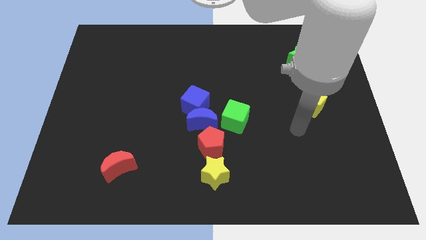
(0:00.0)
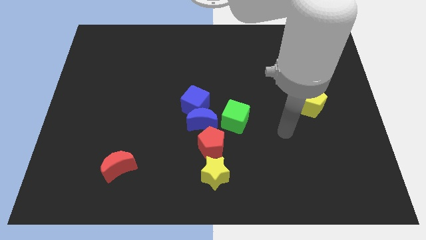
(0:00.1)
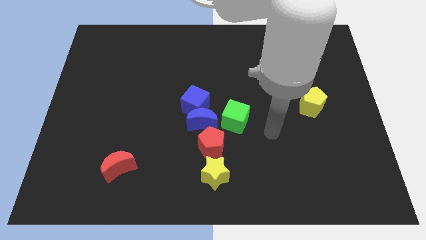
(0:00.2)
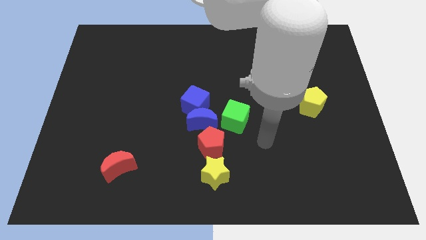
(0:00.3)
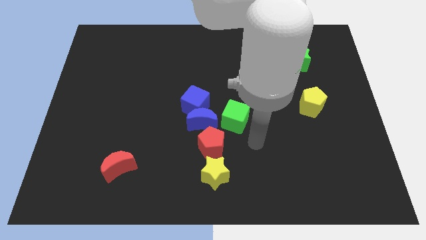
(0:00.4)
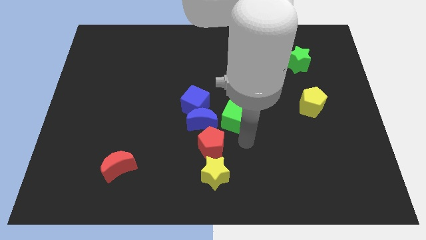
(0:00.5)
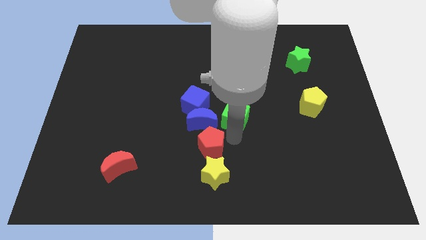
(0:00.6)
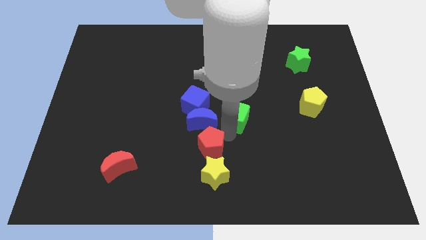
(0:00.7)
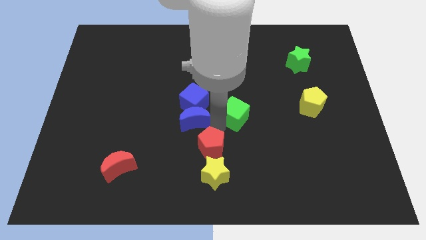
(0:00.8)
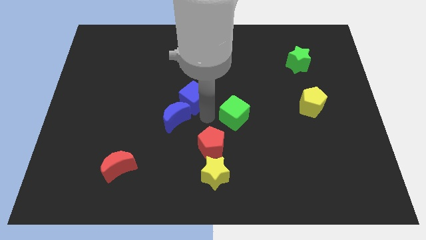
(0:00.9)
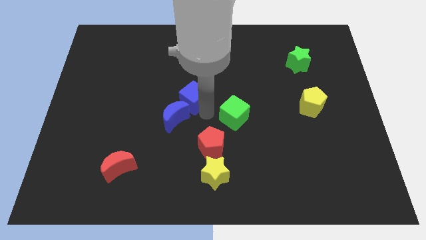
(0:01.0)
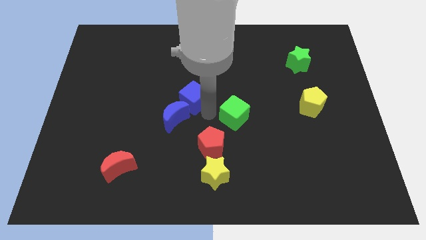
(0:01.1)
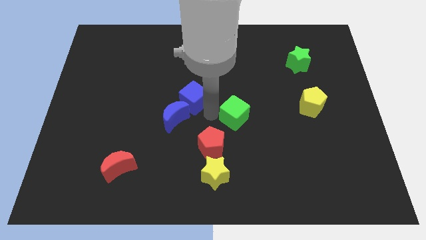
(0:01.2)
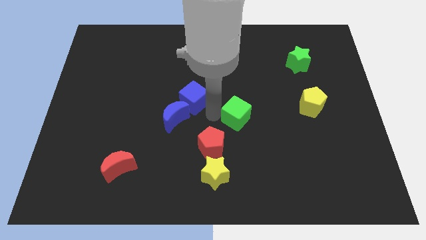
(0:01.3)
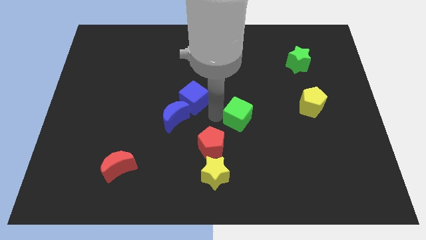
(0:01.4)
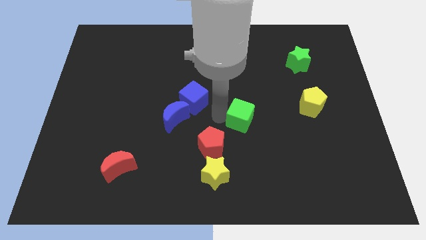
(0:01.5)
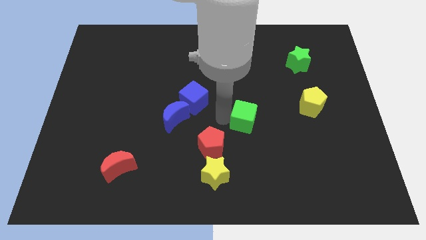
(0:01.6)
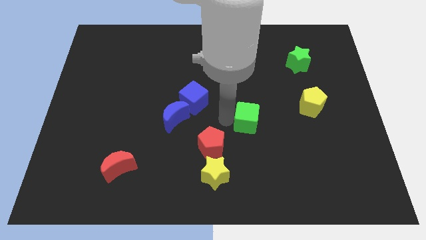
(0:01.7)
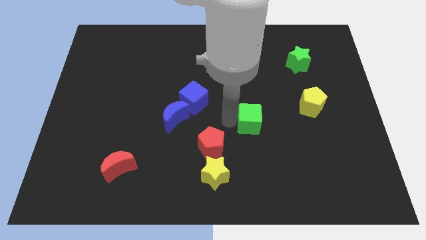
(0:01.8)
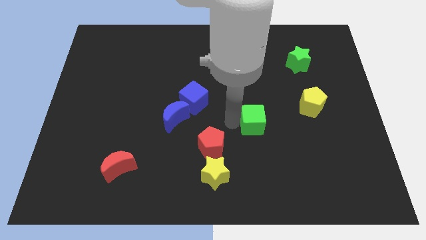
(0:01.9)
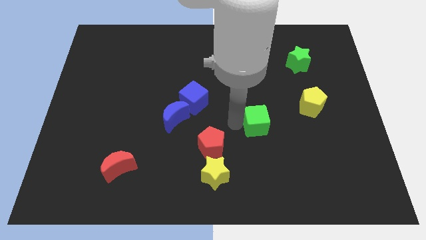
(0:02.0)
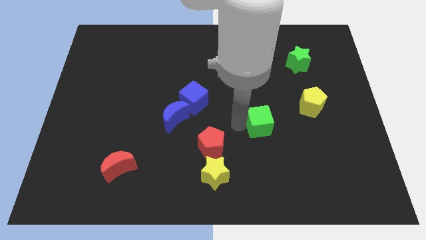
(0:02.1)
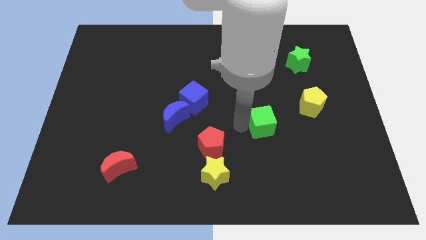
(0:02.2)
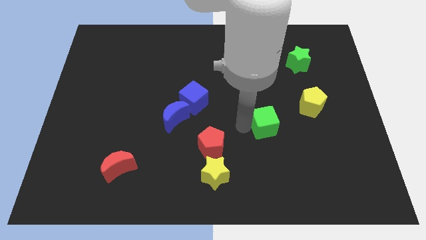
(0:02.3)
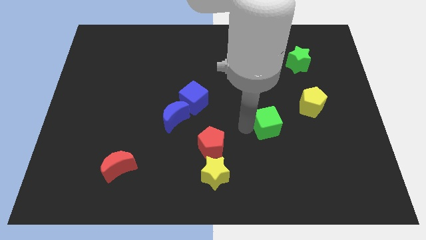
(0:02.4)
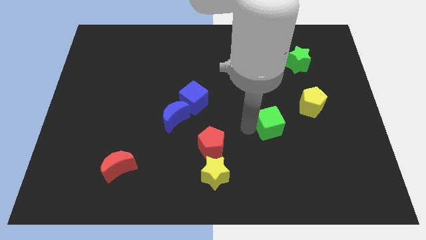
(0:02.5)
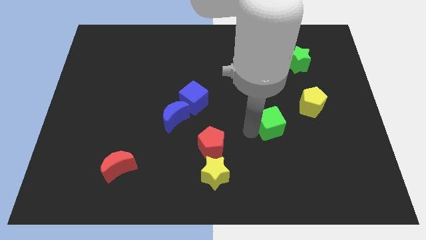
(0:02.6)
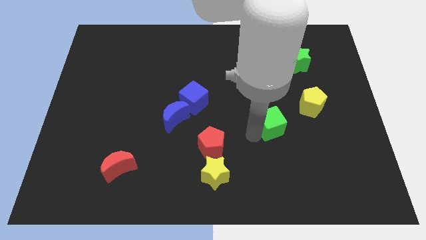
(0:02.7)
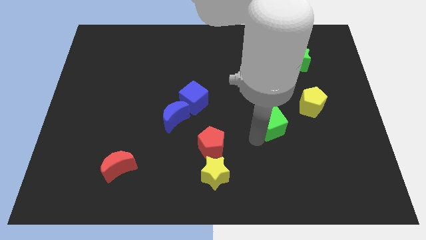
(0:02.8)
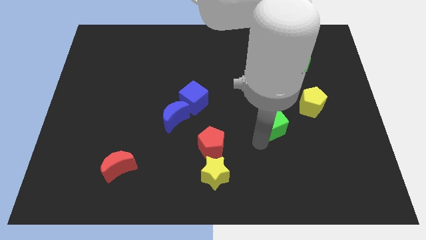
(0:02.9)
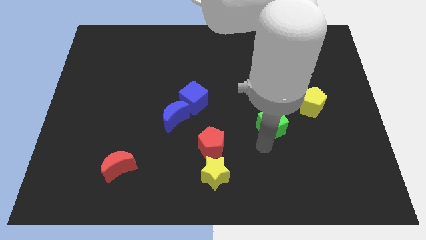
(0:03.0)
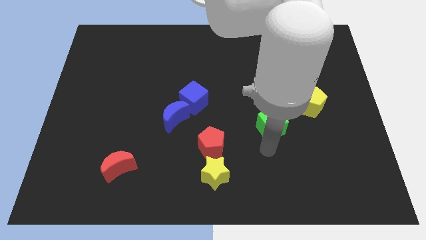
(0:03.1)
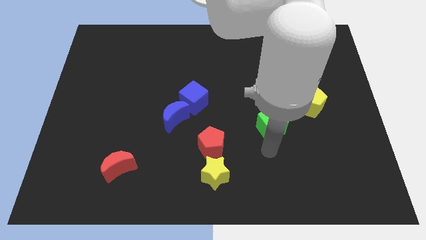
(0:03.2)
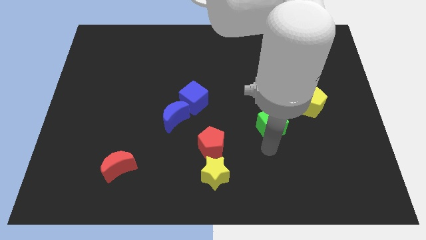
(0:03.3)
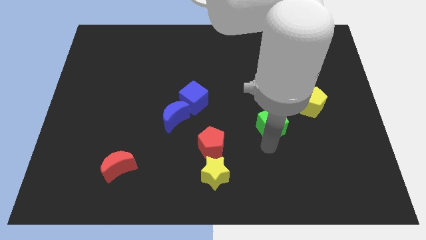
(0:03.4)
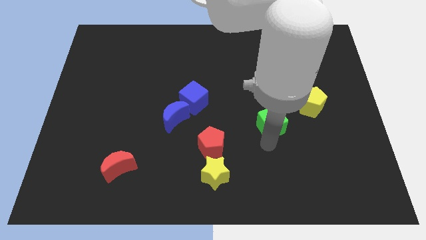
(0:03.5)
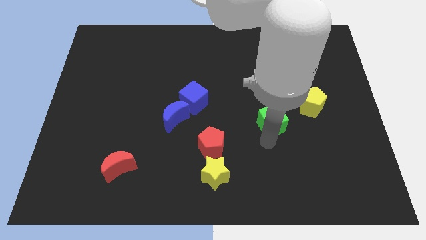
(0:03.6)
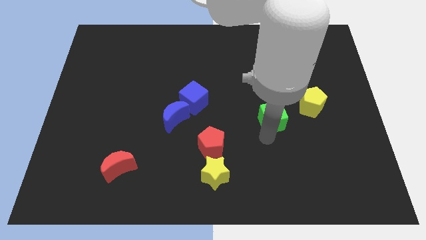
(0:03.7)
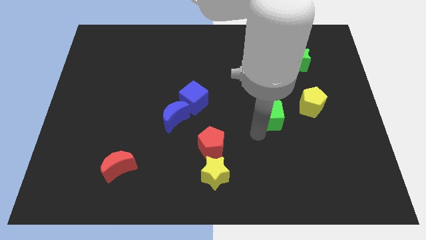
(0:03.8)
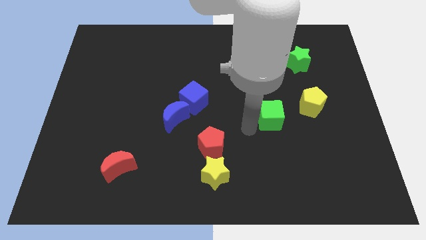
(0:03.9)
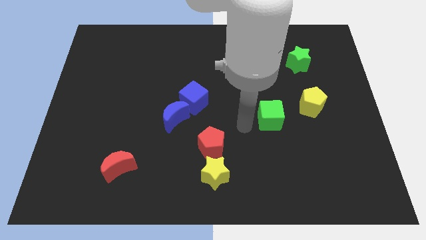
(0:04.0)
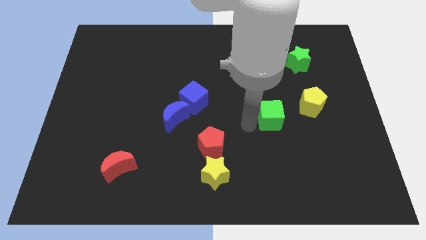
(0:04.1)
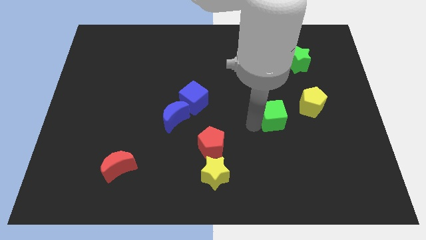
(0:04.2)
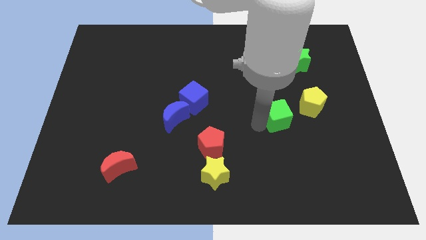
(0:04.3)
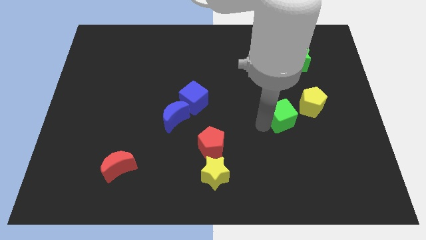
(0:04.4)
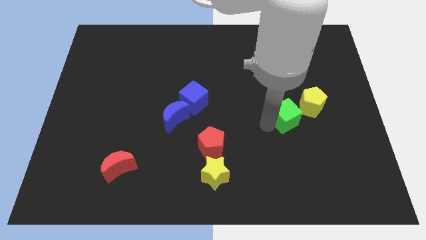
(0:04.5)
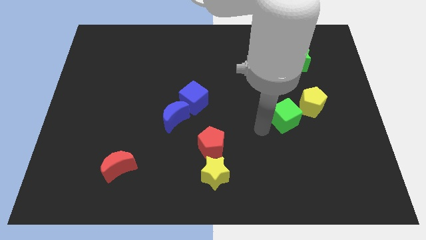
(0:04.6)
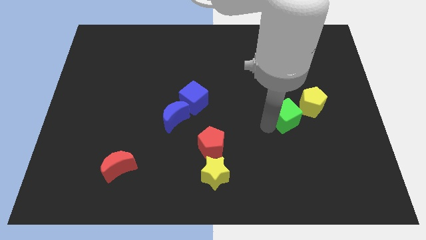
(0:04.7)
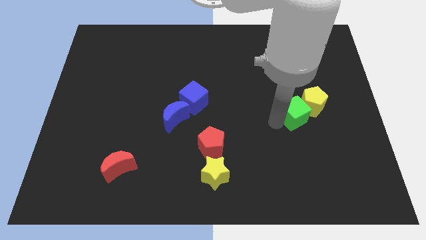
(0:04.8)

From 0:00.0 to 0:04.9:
move the green cube to the yellow pentagon

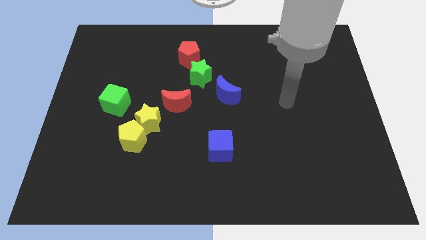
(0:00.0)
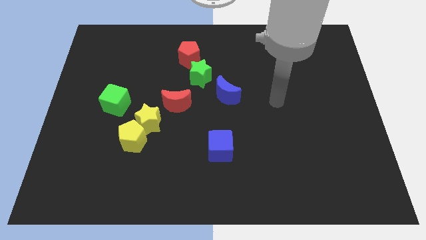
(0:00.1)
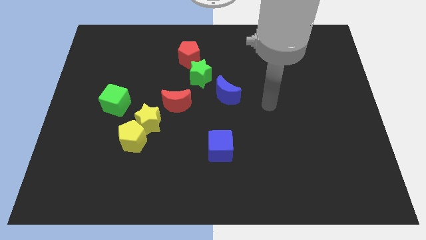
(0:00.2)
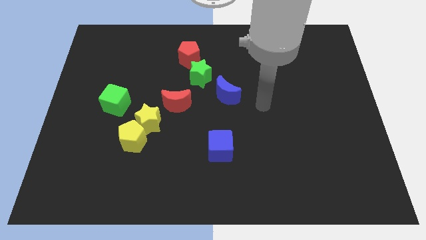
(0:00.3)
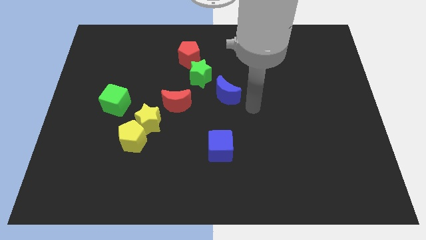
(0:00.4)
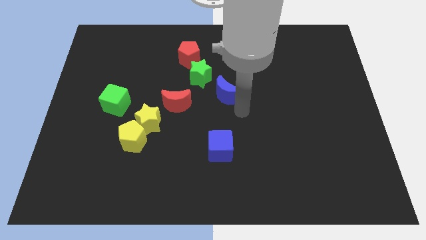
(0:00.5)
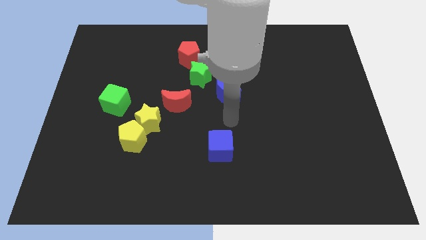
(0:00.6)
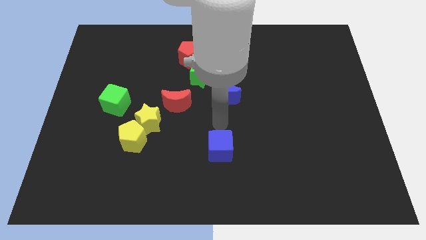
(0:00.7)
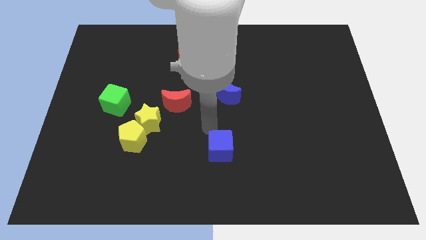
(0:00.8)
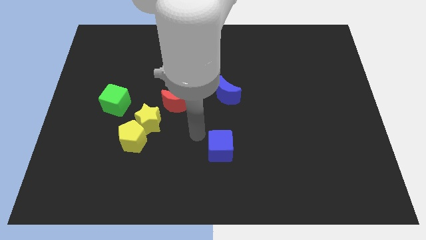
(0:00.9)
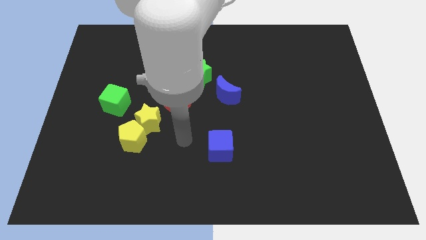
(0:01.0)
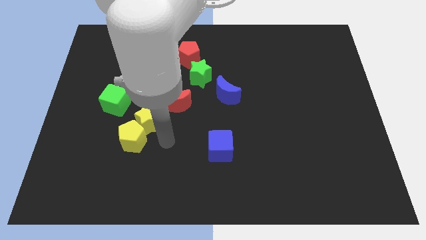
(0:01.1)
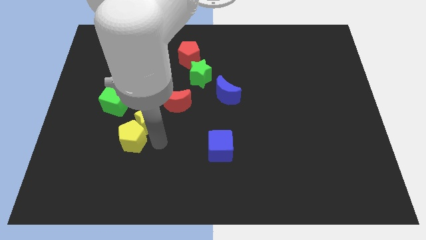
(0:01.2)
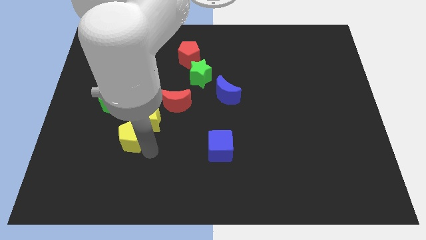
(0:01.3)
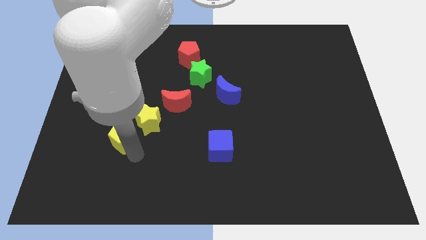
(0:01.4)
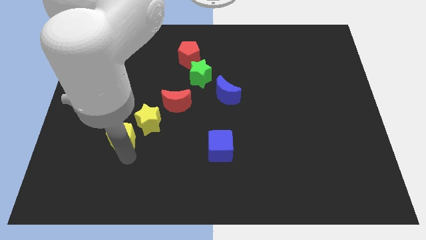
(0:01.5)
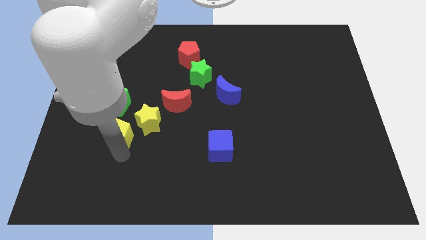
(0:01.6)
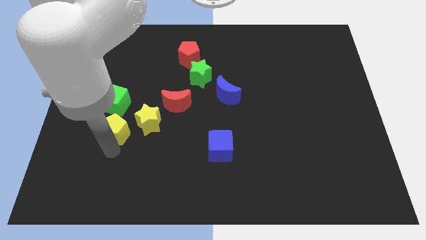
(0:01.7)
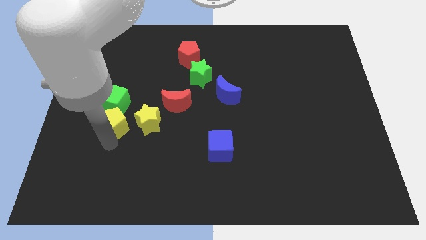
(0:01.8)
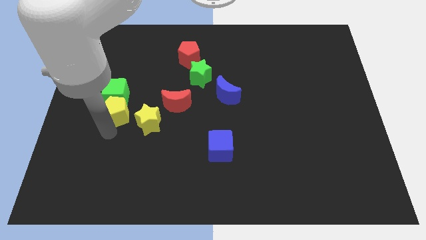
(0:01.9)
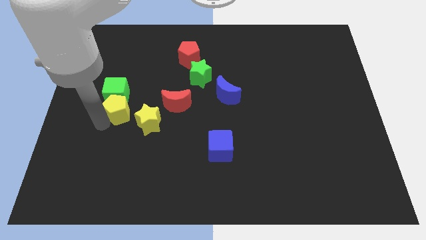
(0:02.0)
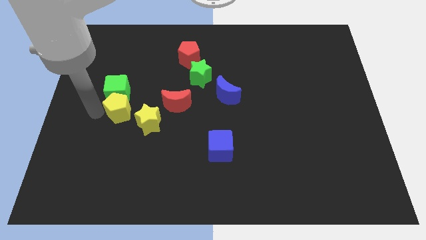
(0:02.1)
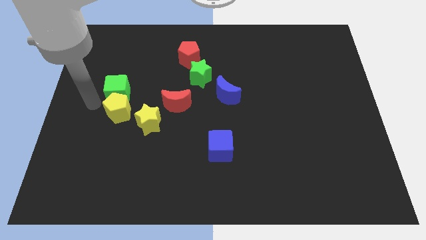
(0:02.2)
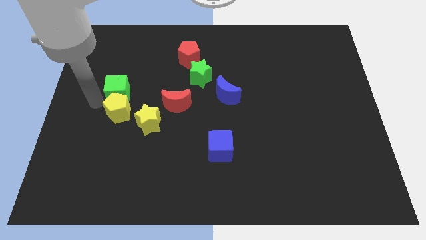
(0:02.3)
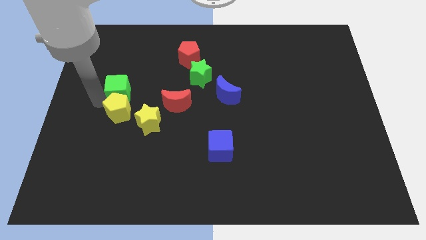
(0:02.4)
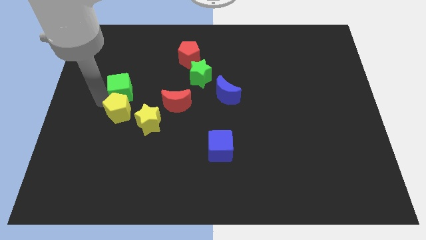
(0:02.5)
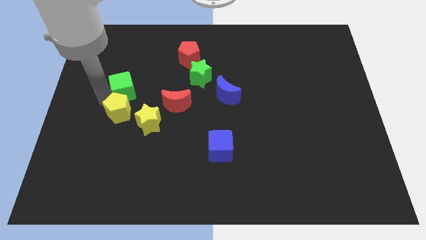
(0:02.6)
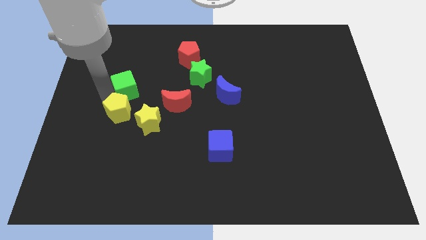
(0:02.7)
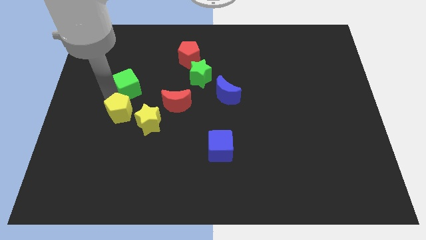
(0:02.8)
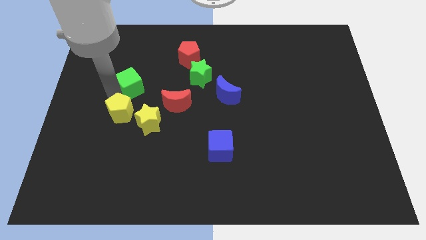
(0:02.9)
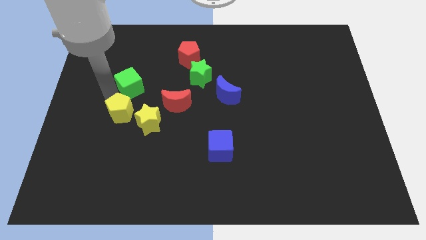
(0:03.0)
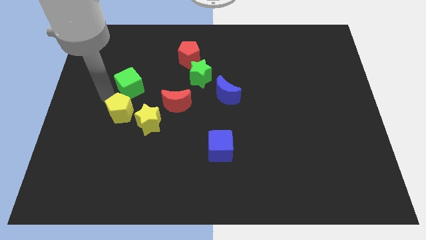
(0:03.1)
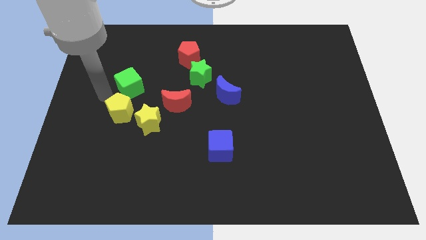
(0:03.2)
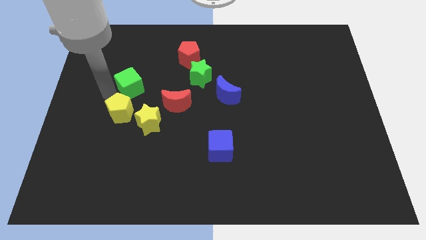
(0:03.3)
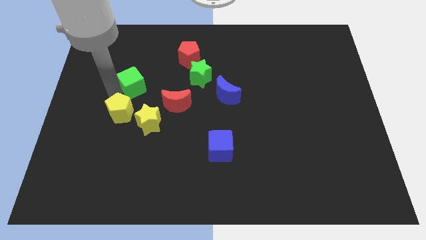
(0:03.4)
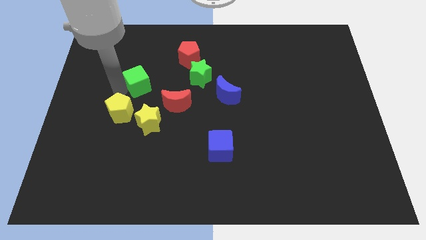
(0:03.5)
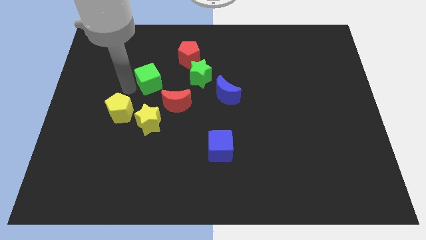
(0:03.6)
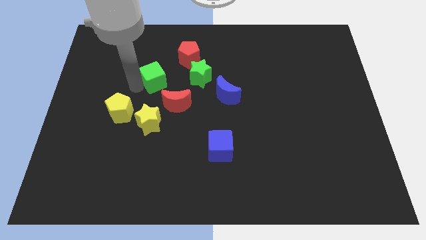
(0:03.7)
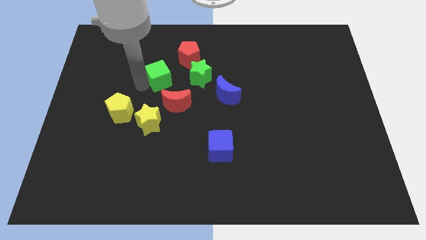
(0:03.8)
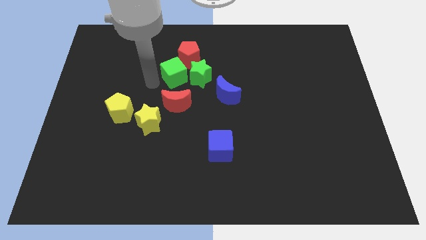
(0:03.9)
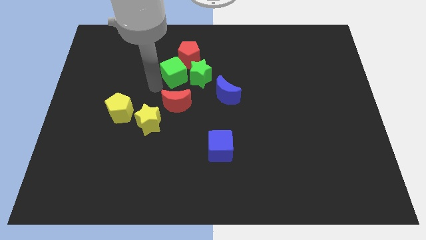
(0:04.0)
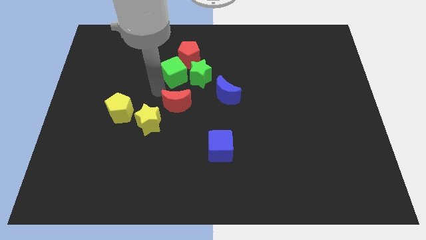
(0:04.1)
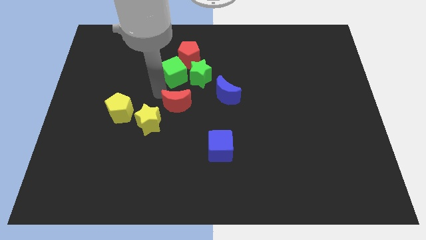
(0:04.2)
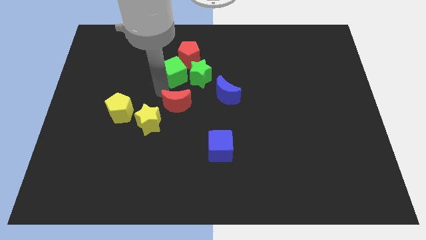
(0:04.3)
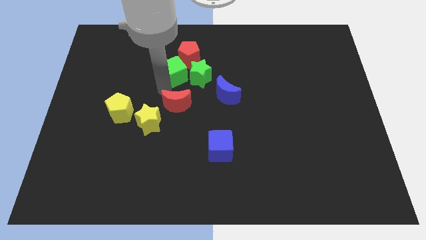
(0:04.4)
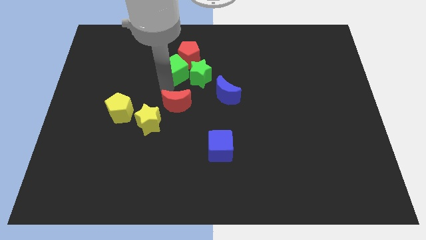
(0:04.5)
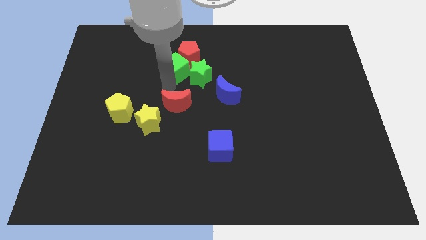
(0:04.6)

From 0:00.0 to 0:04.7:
slide the green cube towards the red pentagon
